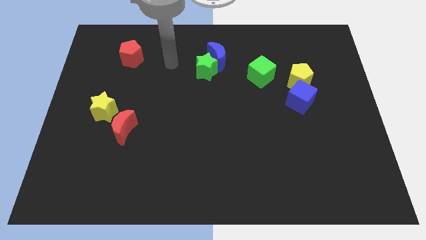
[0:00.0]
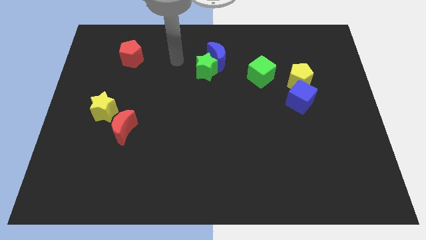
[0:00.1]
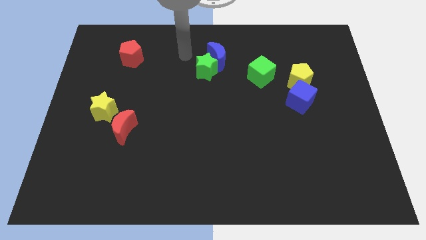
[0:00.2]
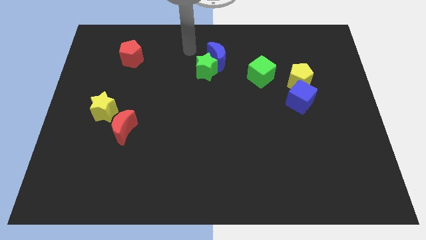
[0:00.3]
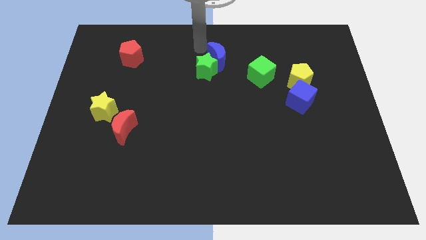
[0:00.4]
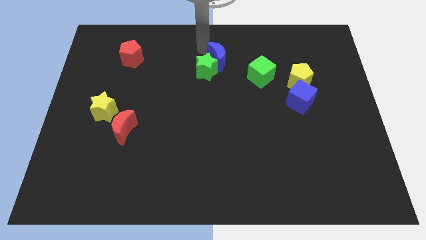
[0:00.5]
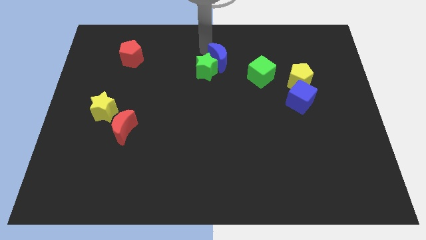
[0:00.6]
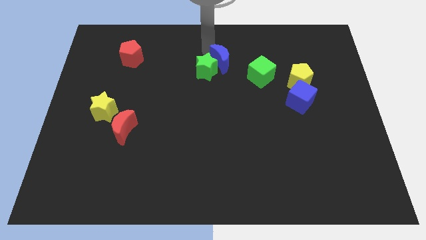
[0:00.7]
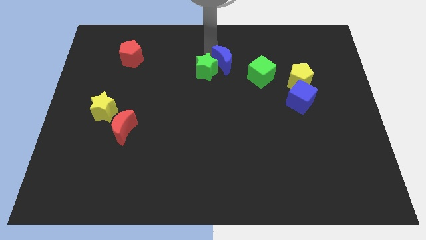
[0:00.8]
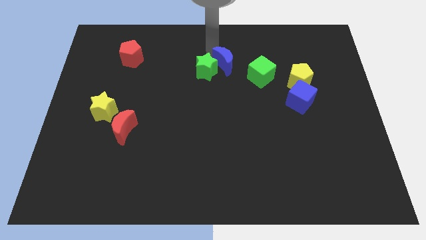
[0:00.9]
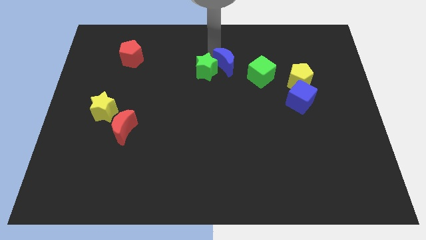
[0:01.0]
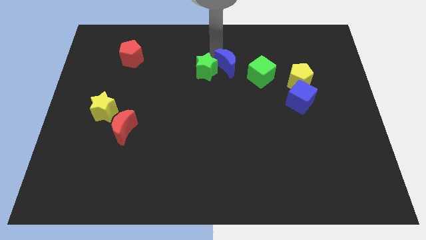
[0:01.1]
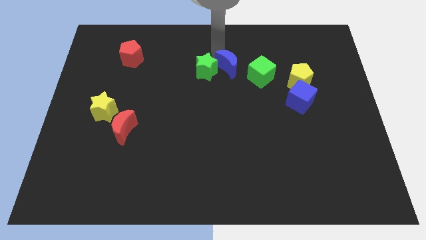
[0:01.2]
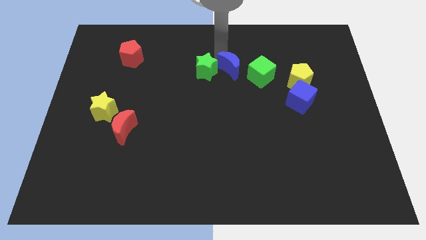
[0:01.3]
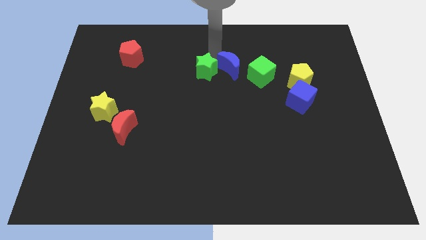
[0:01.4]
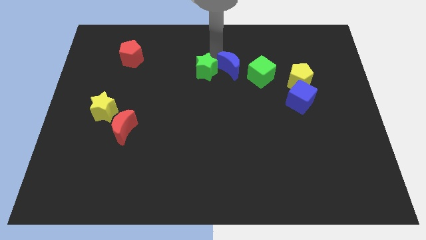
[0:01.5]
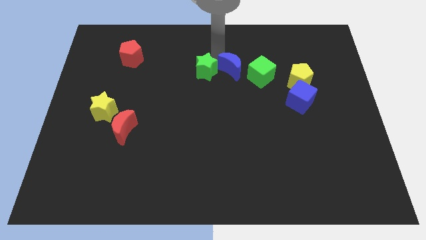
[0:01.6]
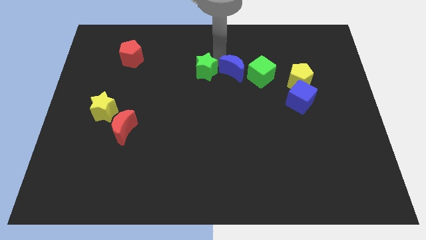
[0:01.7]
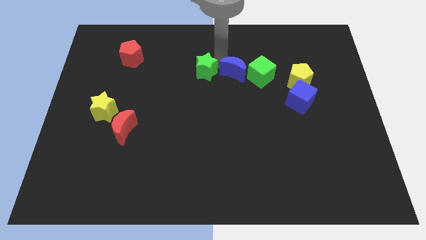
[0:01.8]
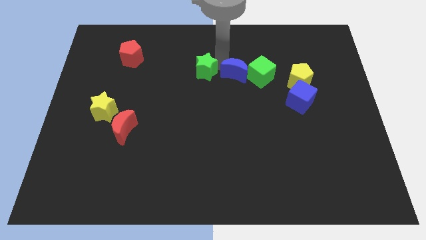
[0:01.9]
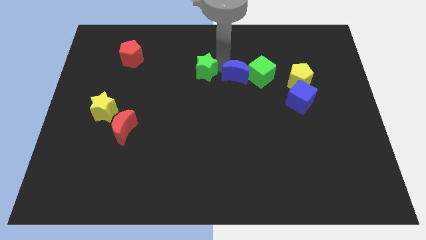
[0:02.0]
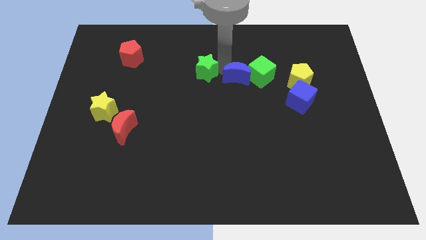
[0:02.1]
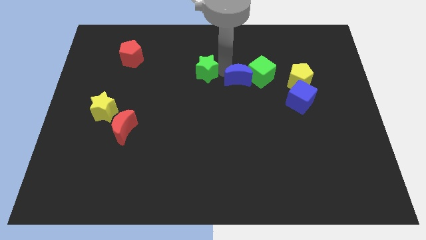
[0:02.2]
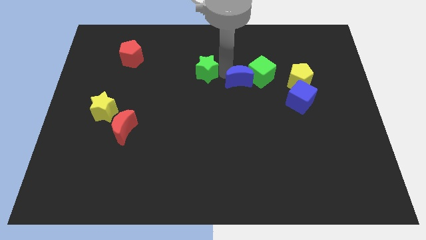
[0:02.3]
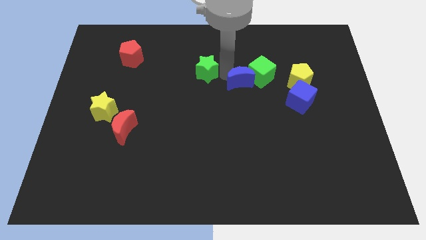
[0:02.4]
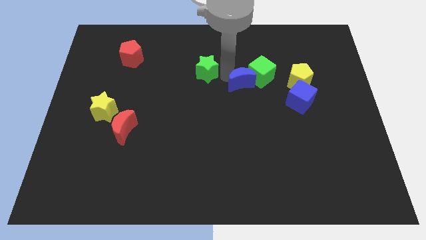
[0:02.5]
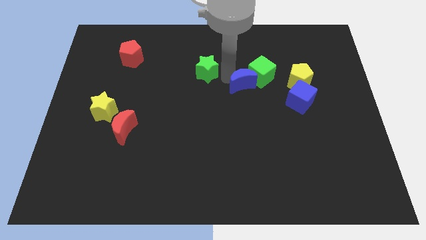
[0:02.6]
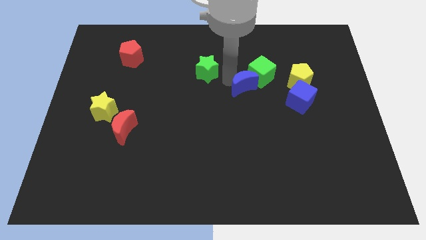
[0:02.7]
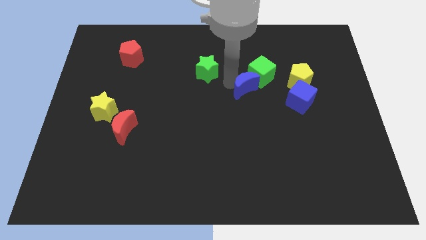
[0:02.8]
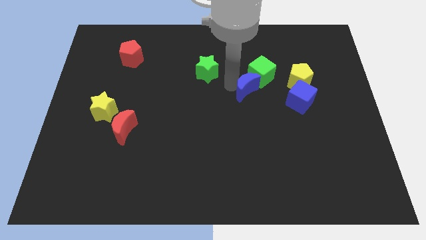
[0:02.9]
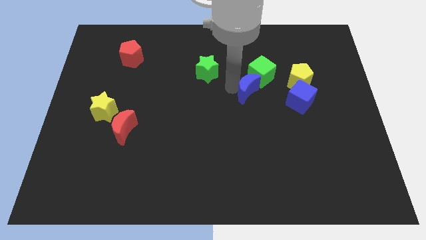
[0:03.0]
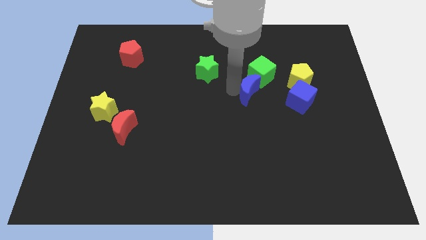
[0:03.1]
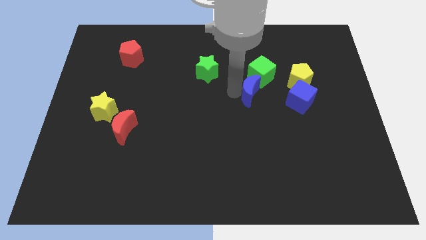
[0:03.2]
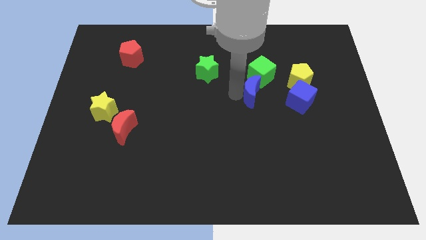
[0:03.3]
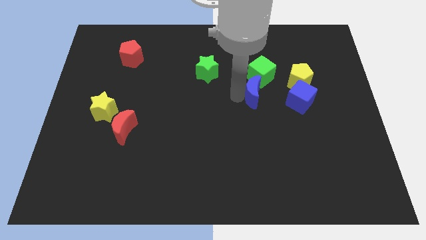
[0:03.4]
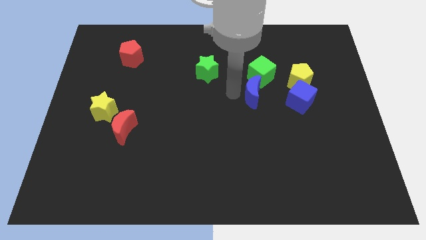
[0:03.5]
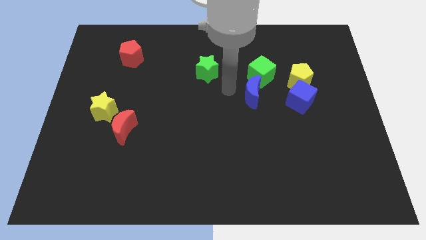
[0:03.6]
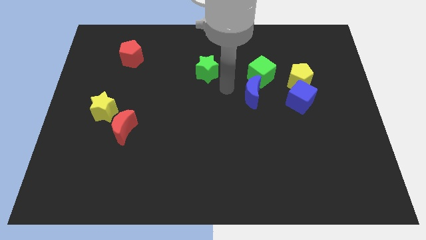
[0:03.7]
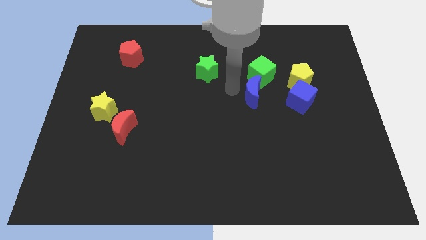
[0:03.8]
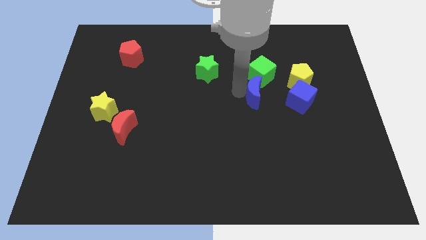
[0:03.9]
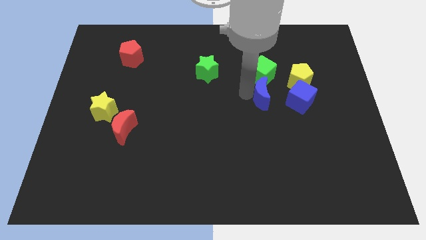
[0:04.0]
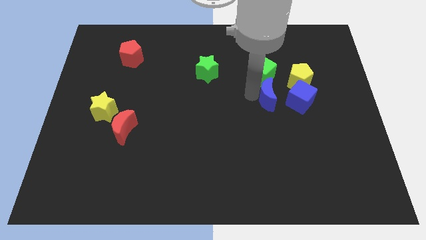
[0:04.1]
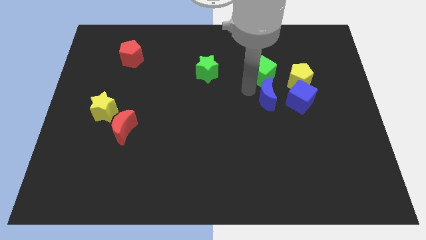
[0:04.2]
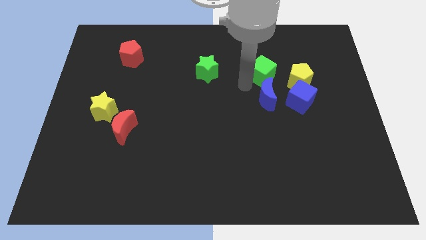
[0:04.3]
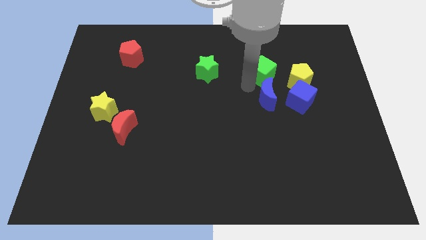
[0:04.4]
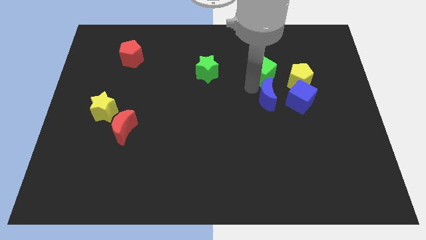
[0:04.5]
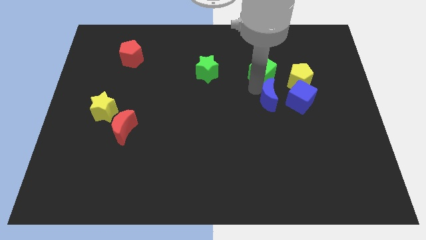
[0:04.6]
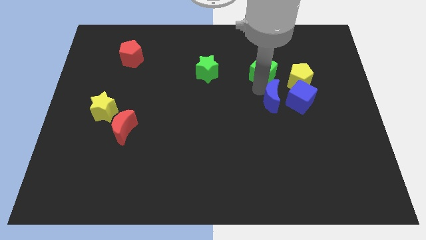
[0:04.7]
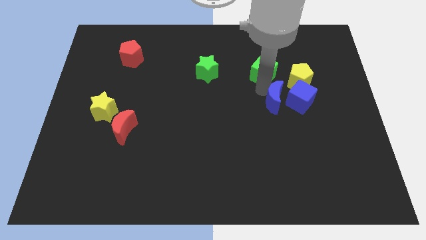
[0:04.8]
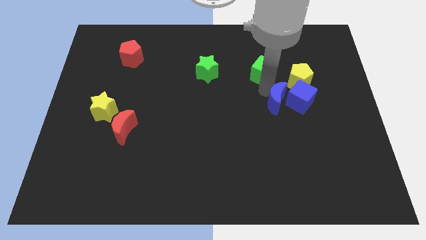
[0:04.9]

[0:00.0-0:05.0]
slide the blue moon downwards and right

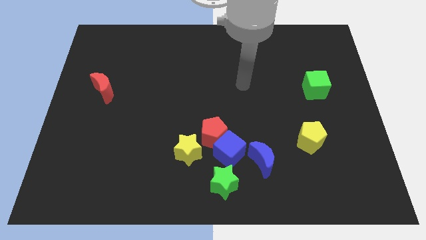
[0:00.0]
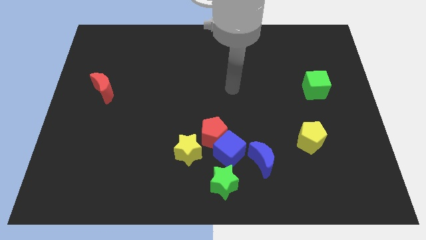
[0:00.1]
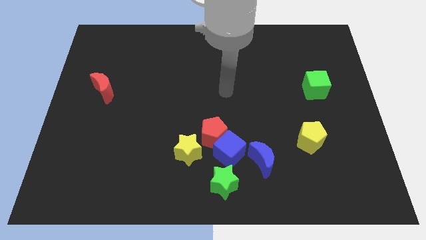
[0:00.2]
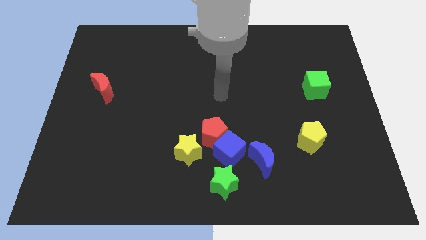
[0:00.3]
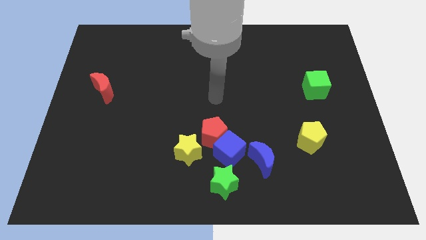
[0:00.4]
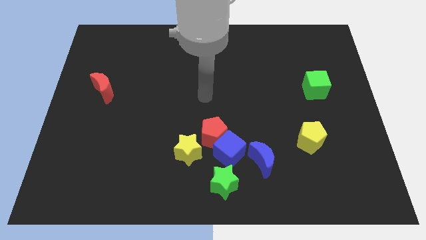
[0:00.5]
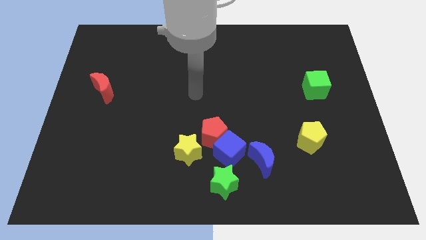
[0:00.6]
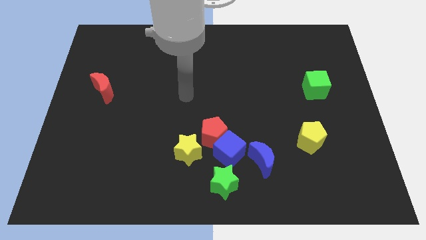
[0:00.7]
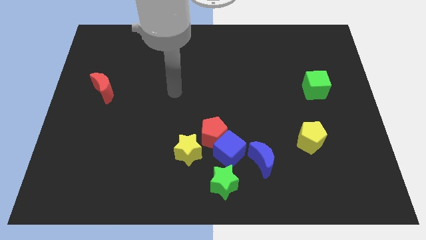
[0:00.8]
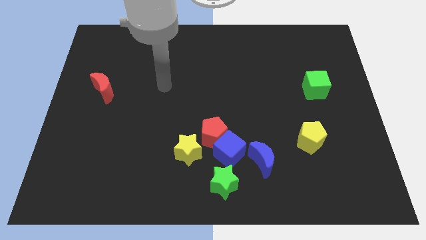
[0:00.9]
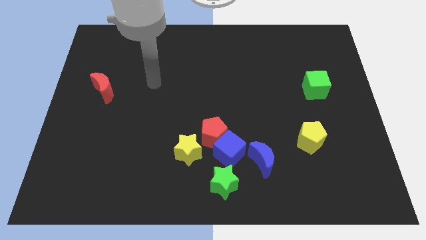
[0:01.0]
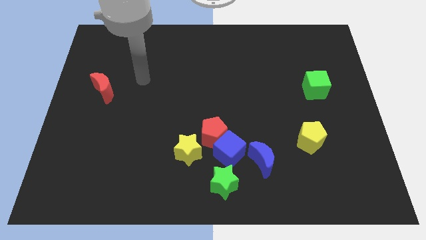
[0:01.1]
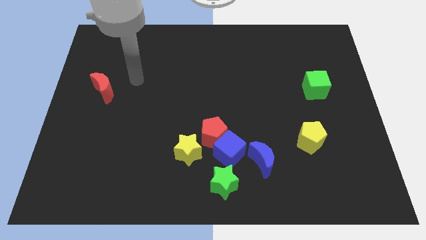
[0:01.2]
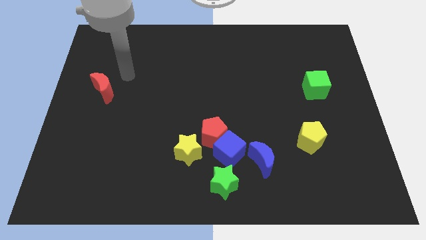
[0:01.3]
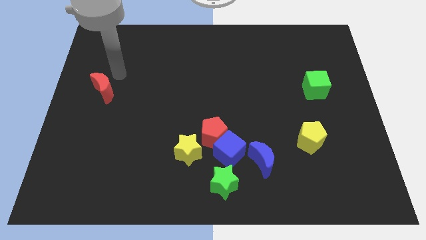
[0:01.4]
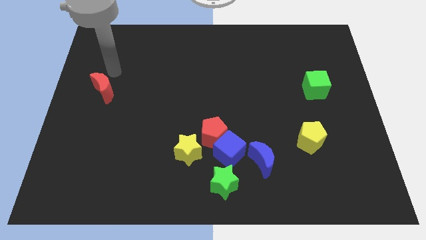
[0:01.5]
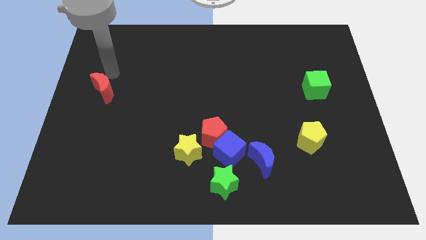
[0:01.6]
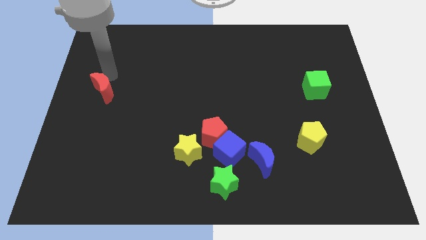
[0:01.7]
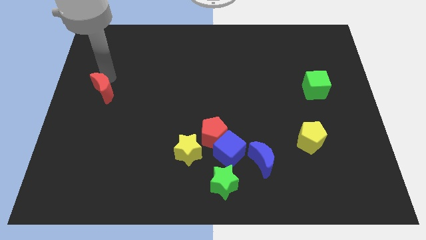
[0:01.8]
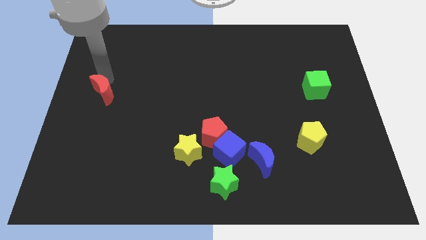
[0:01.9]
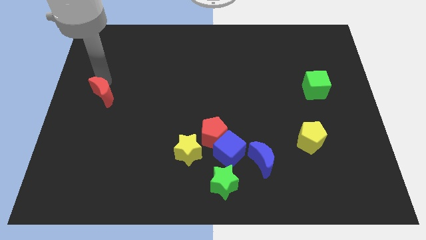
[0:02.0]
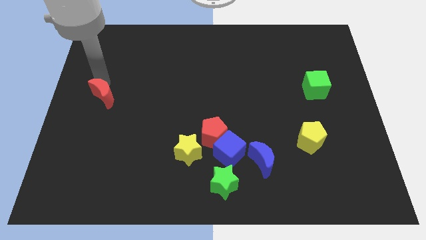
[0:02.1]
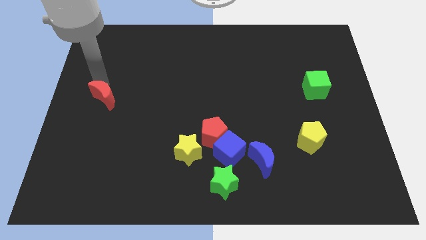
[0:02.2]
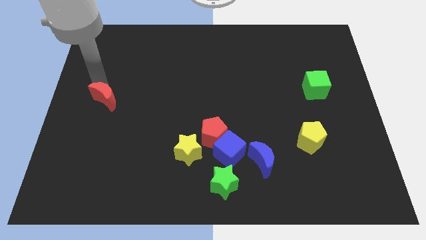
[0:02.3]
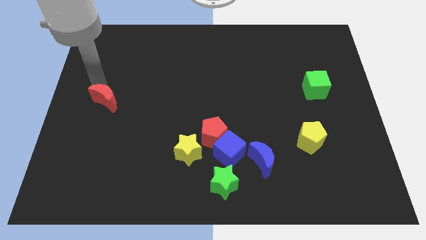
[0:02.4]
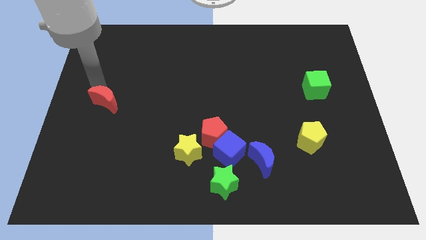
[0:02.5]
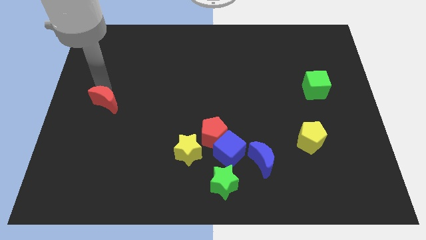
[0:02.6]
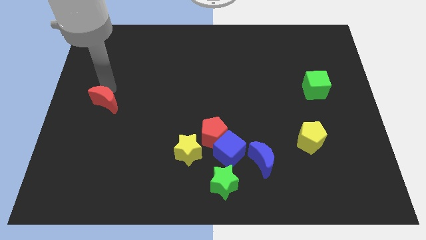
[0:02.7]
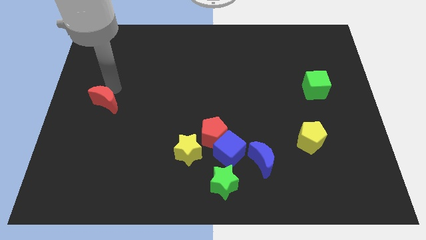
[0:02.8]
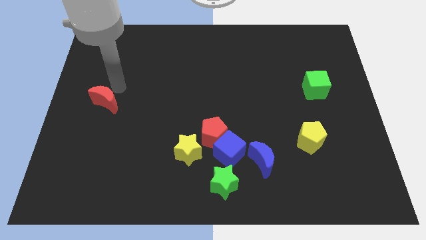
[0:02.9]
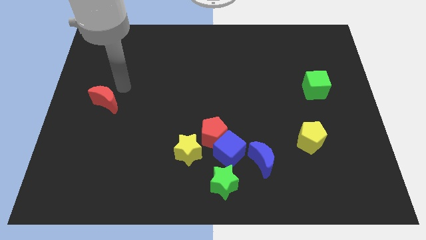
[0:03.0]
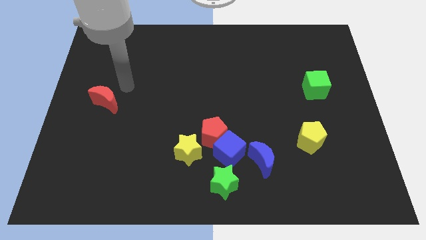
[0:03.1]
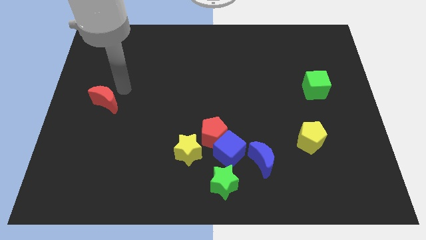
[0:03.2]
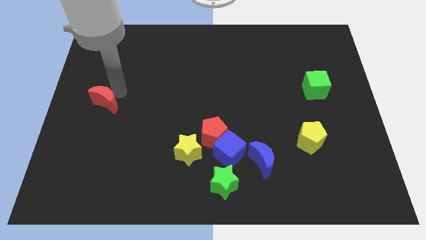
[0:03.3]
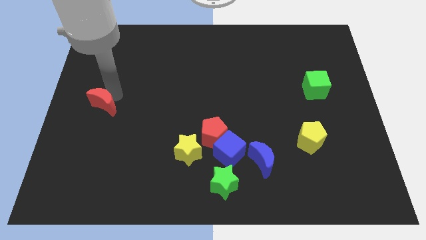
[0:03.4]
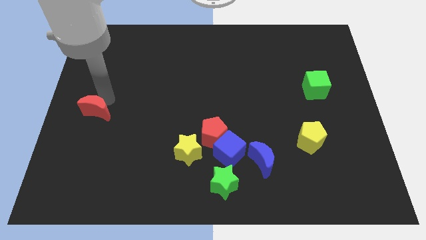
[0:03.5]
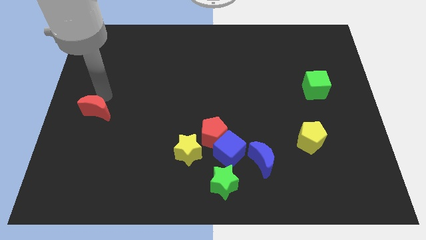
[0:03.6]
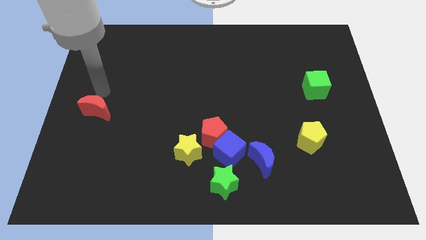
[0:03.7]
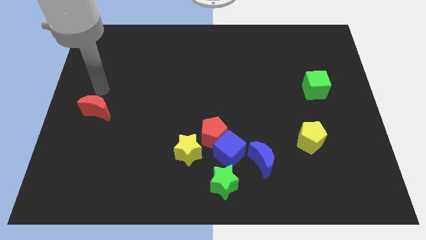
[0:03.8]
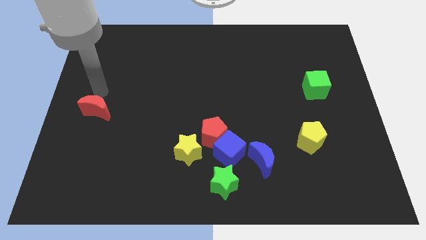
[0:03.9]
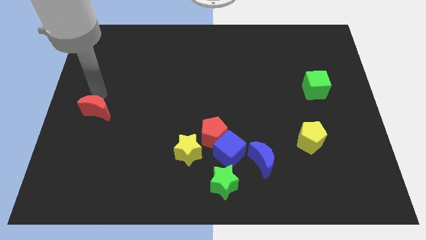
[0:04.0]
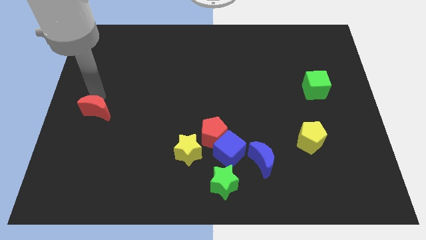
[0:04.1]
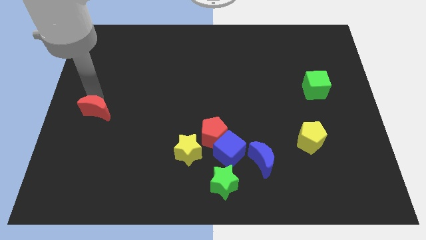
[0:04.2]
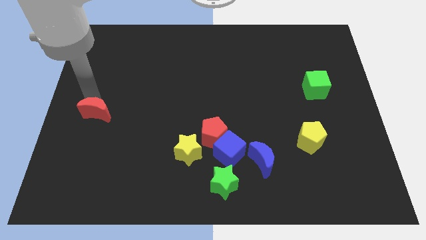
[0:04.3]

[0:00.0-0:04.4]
move the red moon down a little bit
